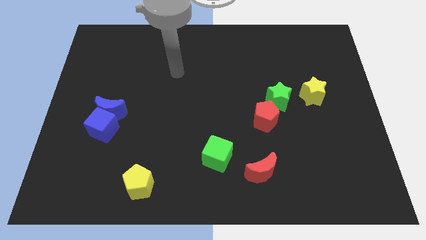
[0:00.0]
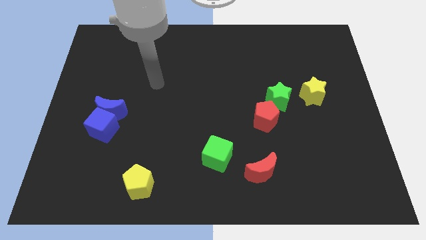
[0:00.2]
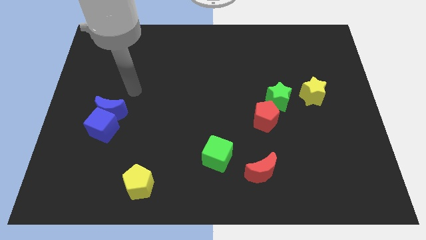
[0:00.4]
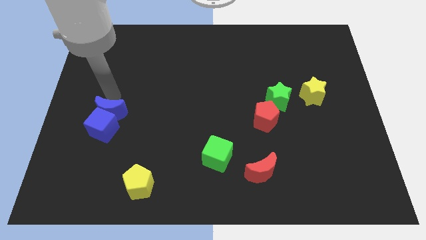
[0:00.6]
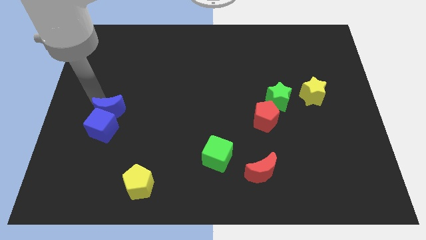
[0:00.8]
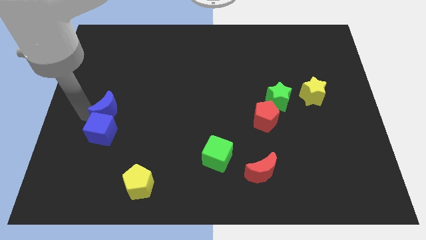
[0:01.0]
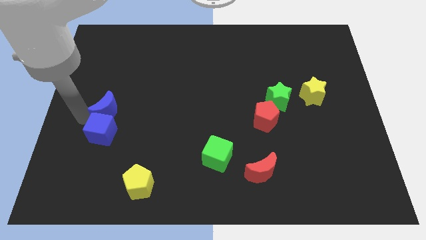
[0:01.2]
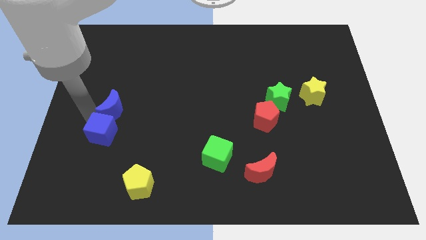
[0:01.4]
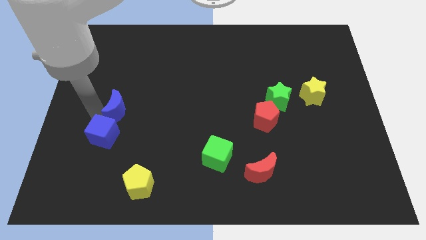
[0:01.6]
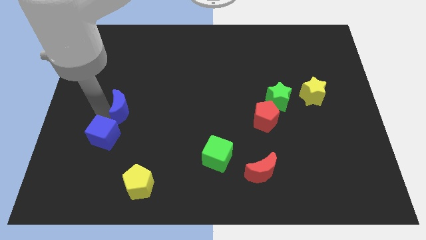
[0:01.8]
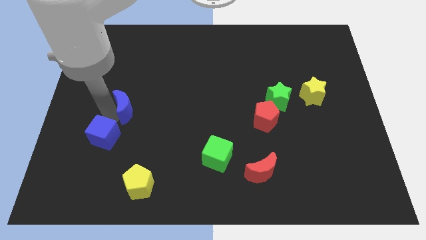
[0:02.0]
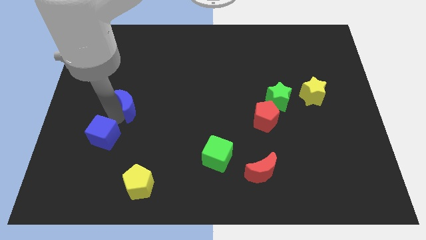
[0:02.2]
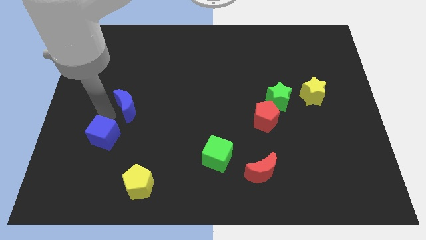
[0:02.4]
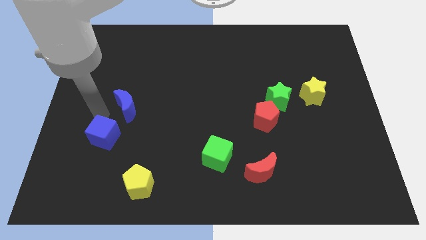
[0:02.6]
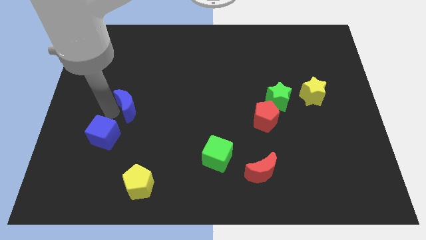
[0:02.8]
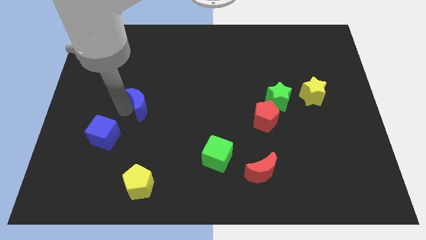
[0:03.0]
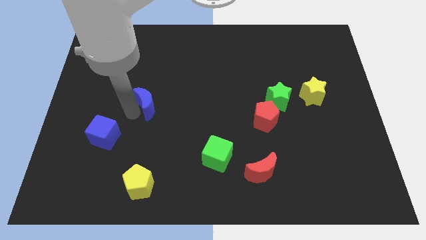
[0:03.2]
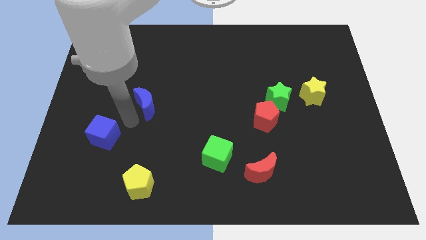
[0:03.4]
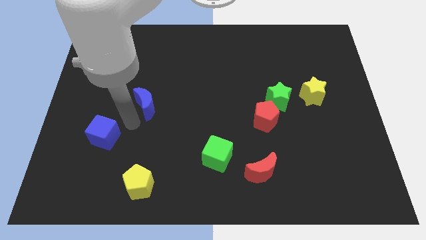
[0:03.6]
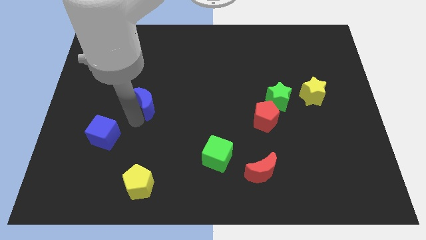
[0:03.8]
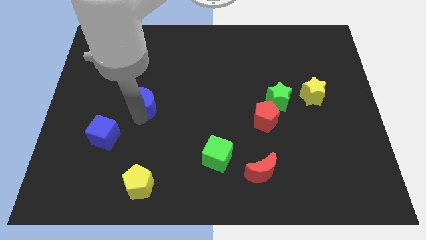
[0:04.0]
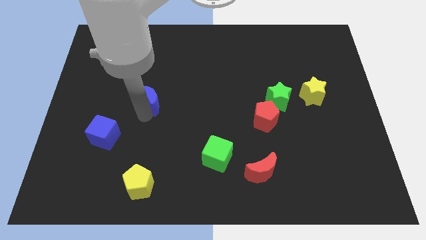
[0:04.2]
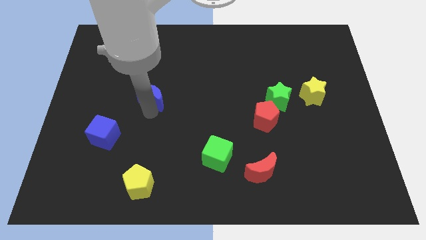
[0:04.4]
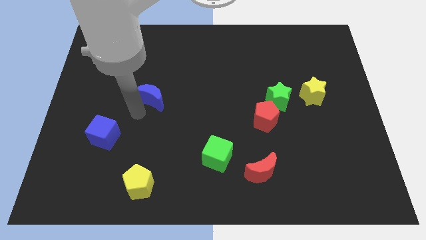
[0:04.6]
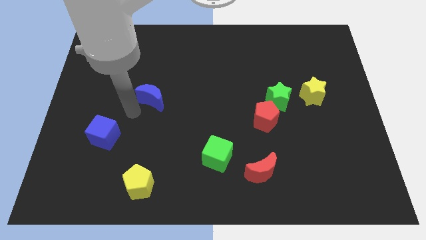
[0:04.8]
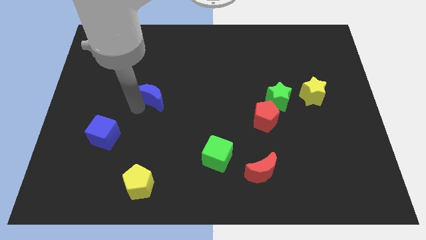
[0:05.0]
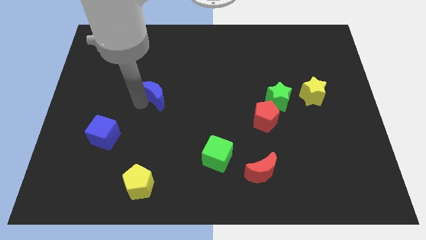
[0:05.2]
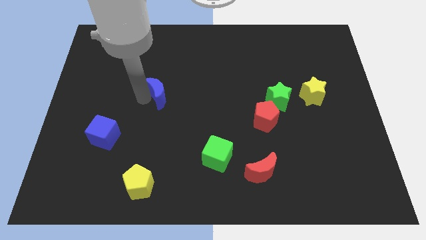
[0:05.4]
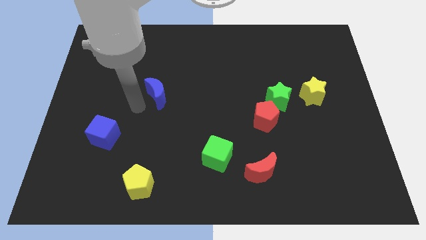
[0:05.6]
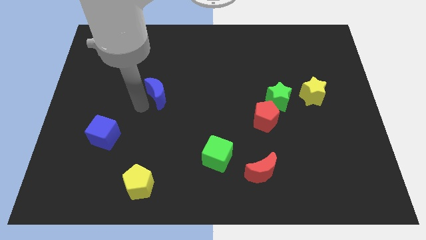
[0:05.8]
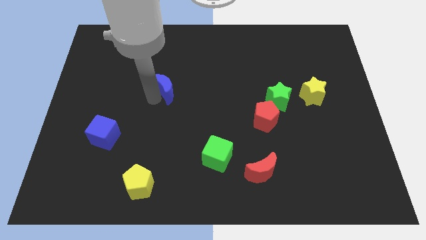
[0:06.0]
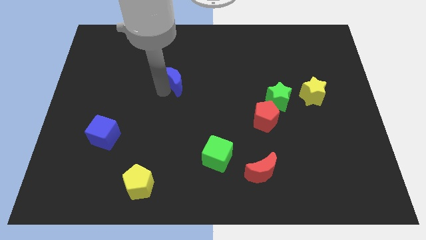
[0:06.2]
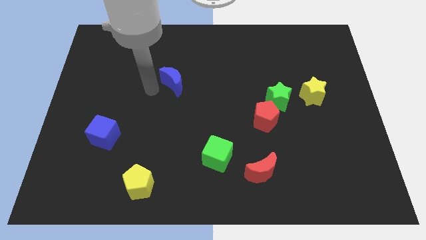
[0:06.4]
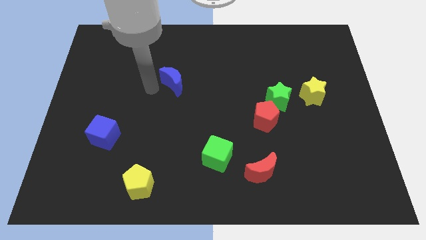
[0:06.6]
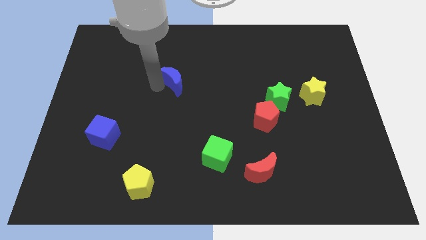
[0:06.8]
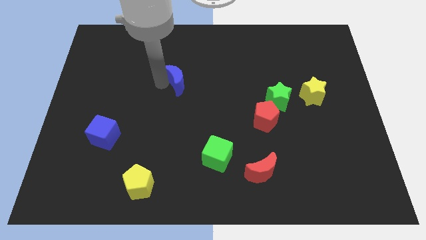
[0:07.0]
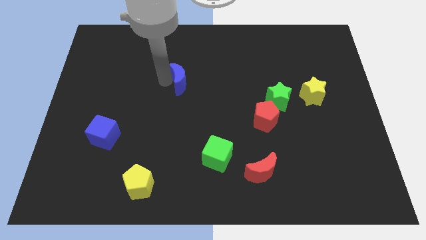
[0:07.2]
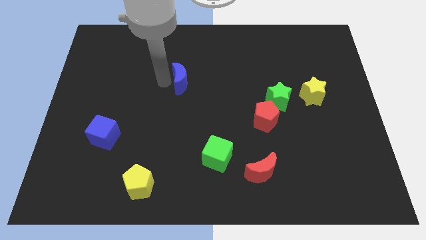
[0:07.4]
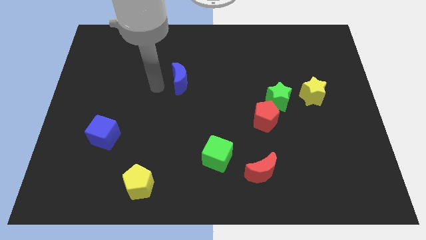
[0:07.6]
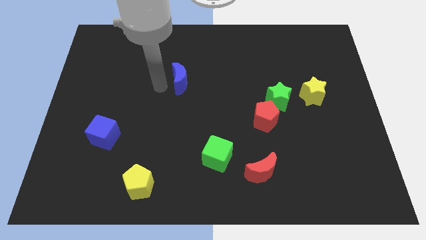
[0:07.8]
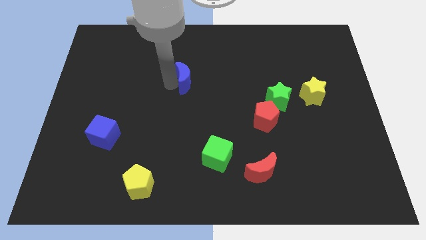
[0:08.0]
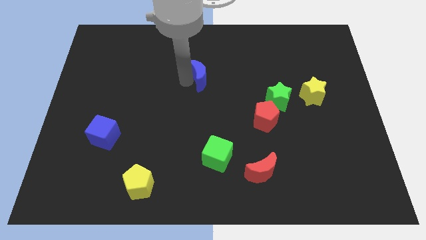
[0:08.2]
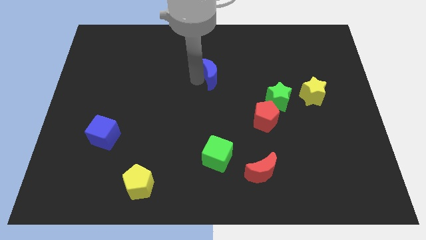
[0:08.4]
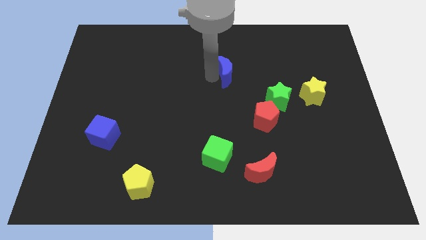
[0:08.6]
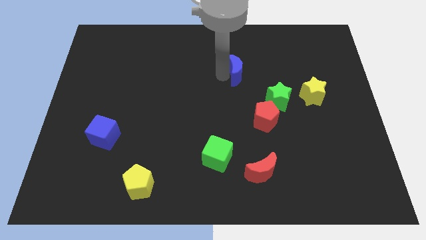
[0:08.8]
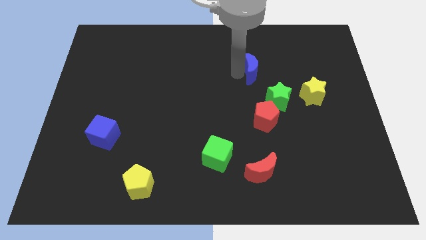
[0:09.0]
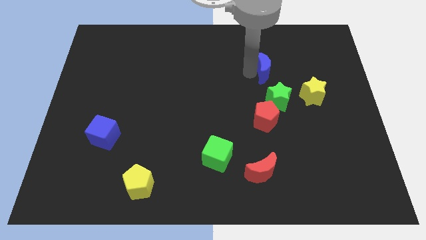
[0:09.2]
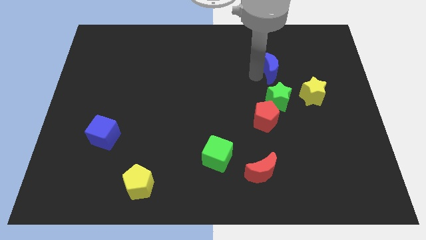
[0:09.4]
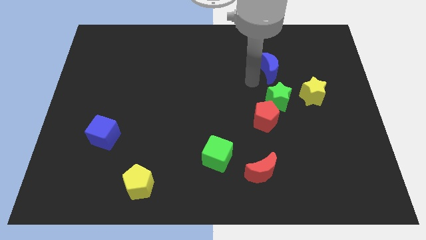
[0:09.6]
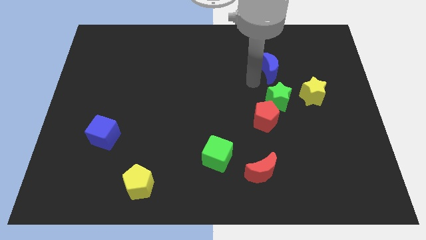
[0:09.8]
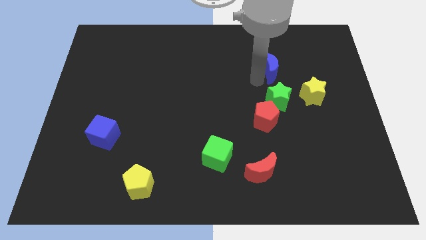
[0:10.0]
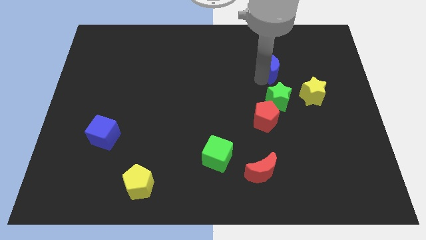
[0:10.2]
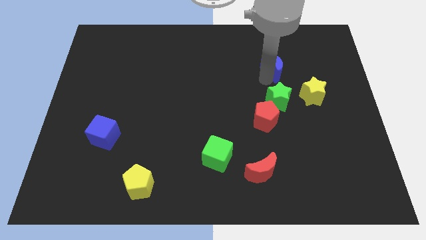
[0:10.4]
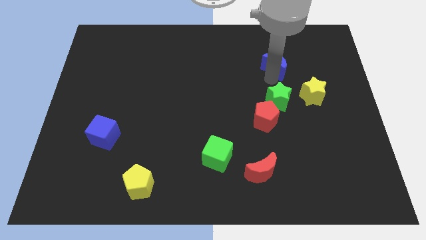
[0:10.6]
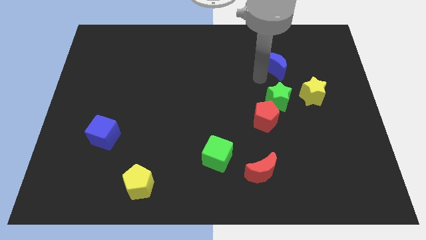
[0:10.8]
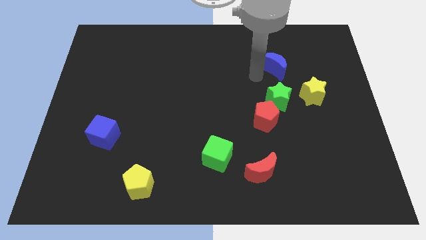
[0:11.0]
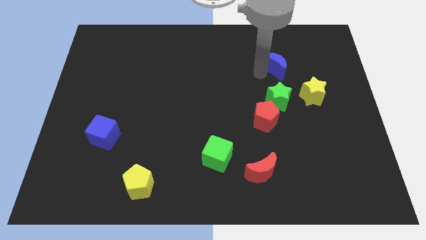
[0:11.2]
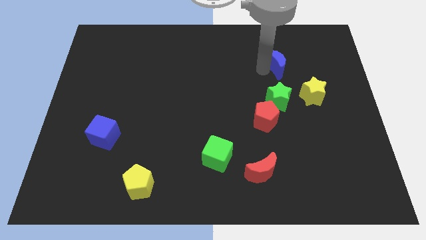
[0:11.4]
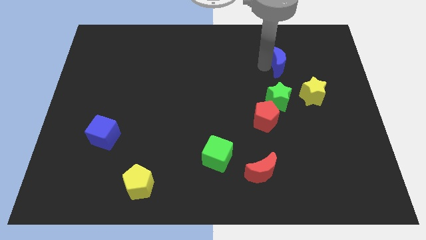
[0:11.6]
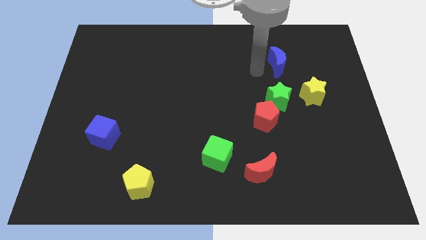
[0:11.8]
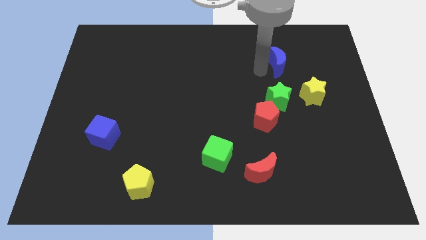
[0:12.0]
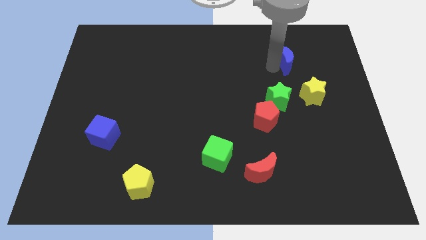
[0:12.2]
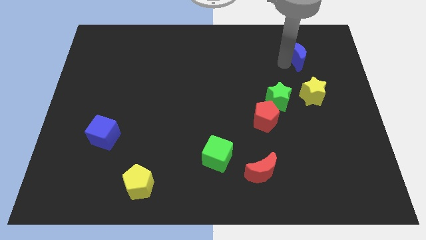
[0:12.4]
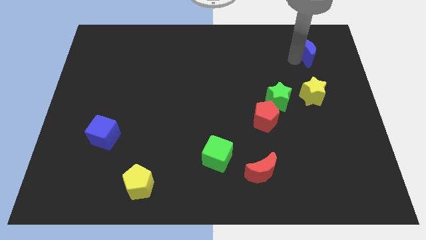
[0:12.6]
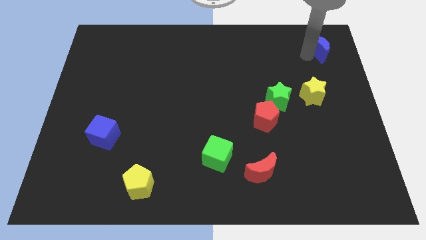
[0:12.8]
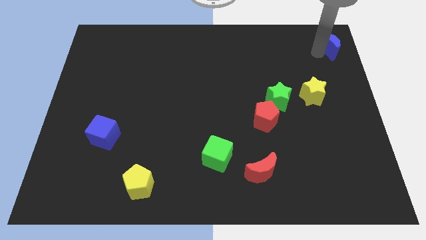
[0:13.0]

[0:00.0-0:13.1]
move the blue moon to the top right

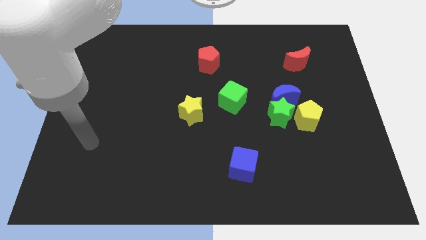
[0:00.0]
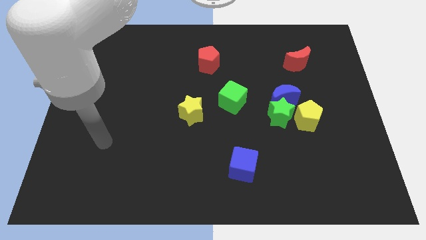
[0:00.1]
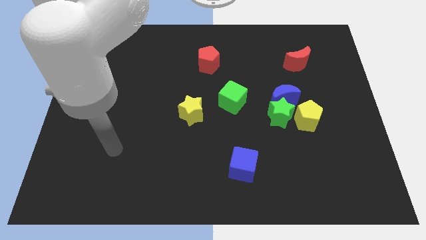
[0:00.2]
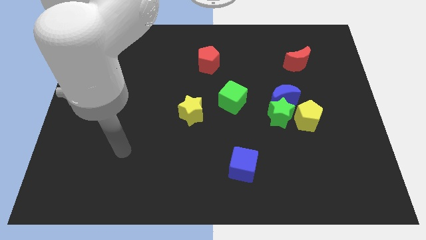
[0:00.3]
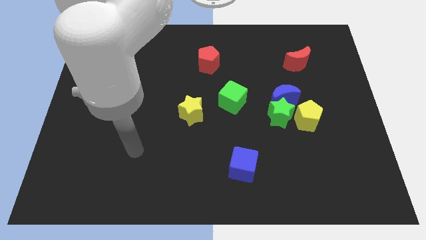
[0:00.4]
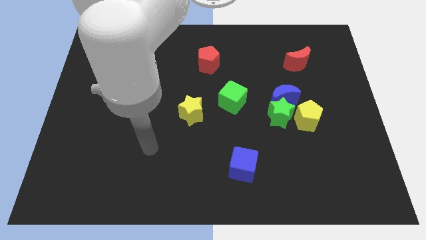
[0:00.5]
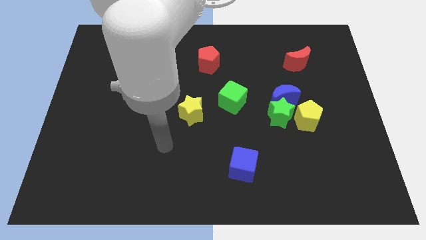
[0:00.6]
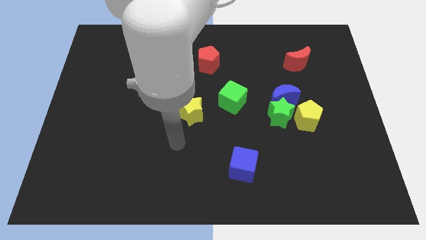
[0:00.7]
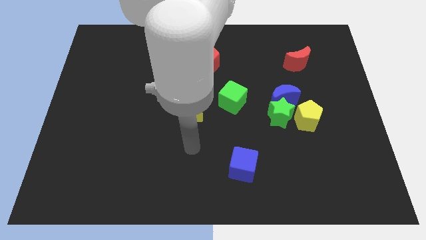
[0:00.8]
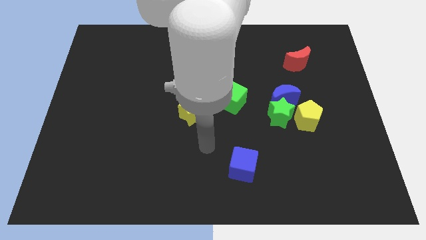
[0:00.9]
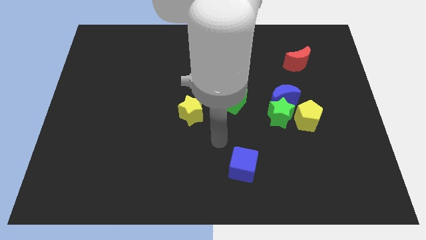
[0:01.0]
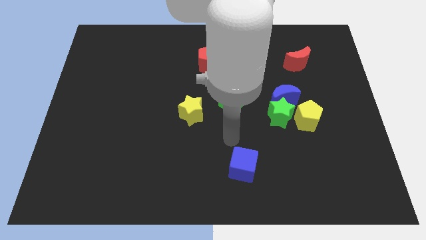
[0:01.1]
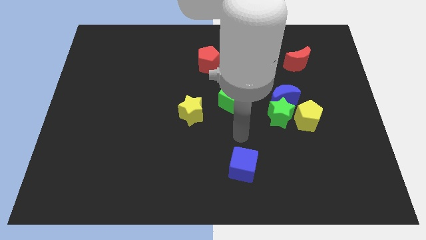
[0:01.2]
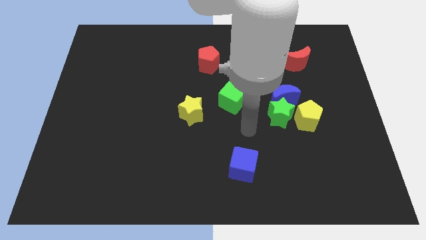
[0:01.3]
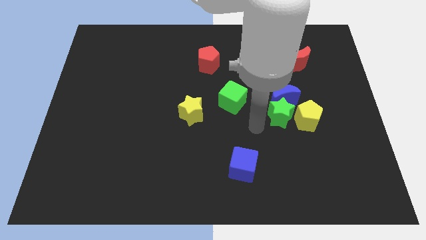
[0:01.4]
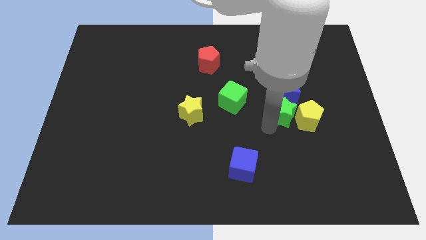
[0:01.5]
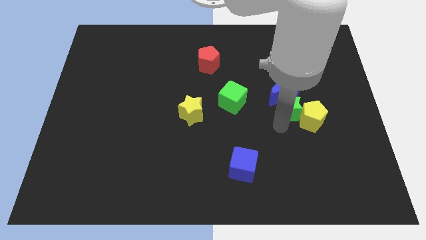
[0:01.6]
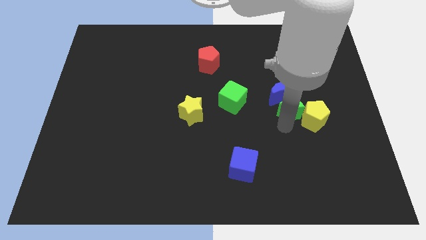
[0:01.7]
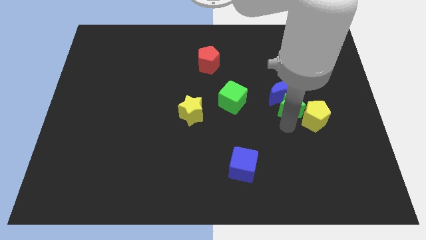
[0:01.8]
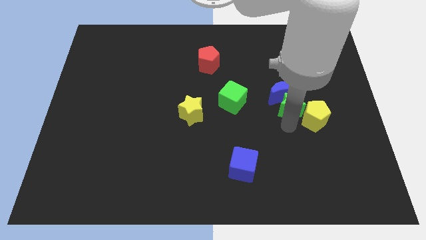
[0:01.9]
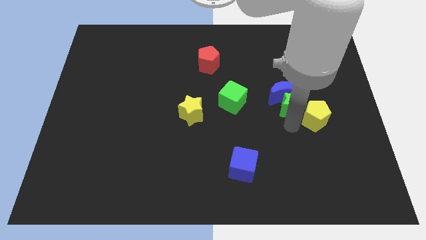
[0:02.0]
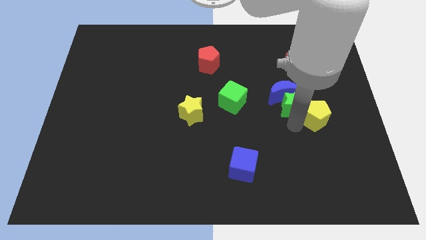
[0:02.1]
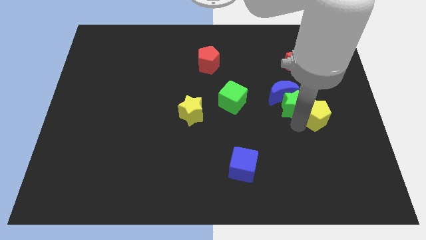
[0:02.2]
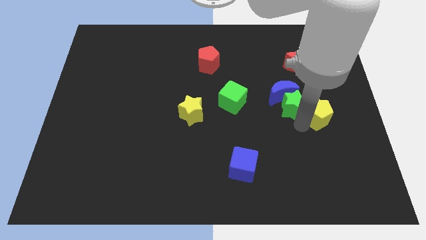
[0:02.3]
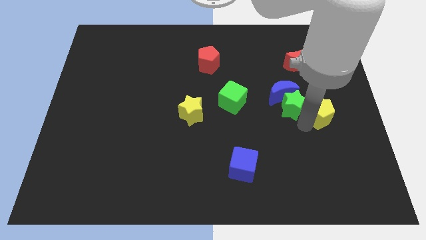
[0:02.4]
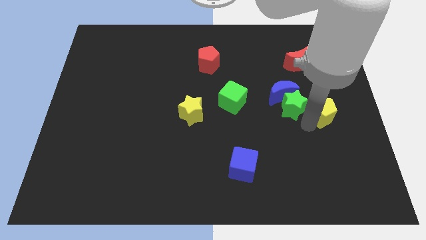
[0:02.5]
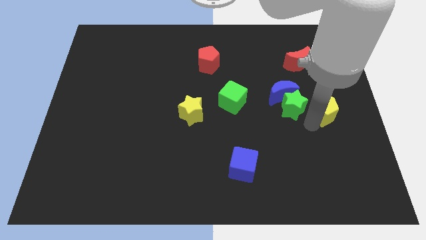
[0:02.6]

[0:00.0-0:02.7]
put the yellow pentagon to the center right
